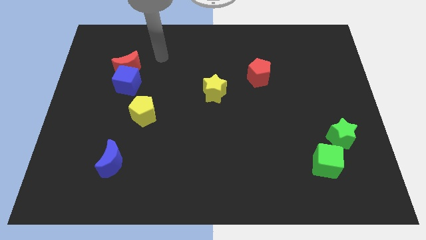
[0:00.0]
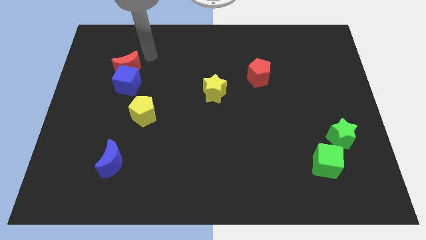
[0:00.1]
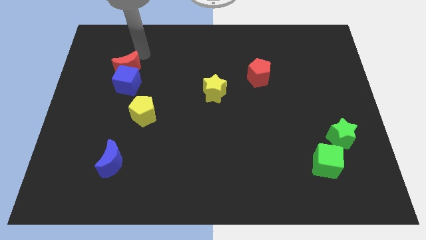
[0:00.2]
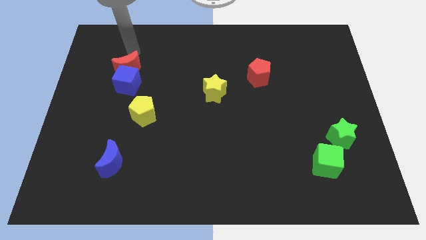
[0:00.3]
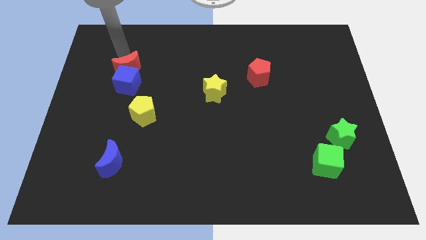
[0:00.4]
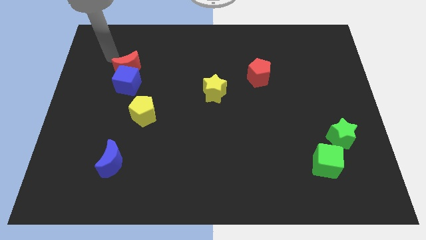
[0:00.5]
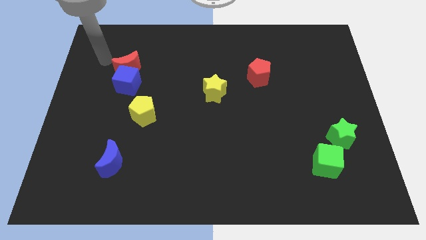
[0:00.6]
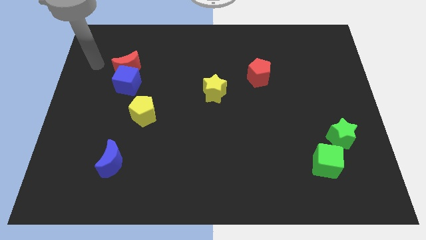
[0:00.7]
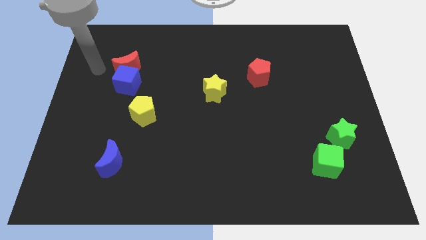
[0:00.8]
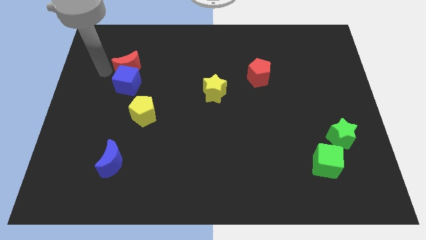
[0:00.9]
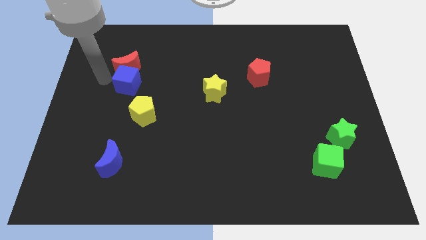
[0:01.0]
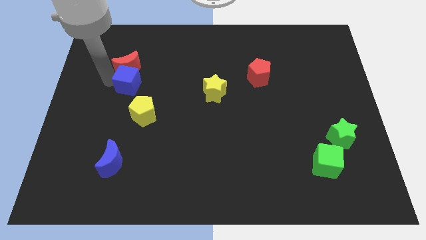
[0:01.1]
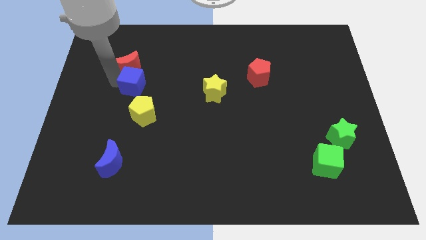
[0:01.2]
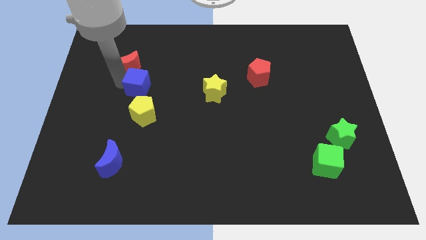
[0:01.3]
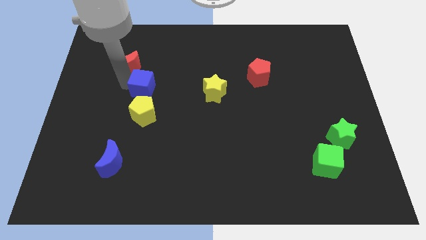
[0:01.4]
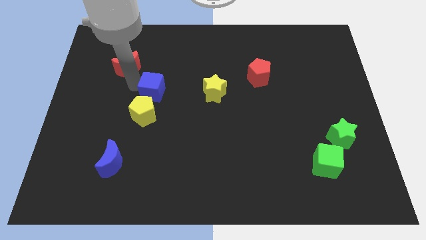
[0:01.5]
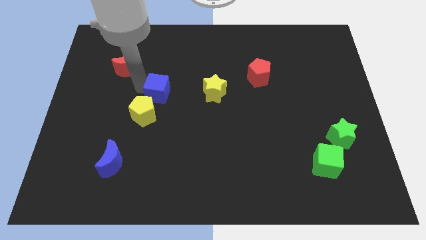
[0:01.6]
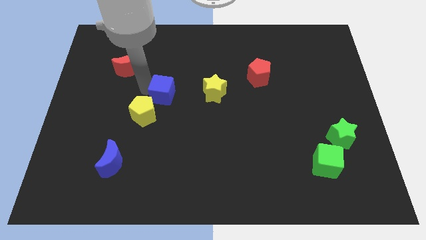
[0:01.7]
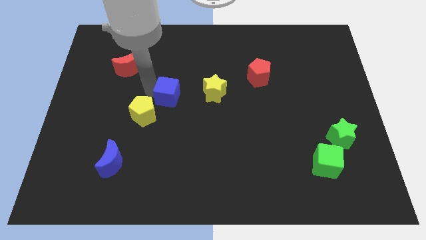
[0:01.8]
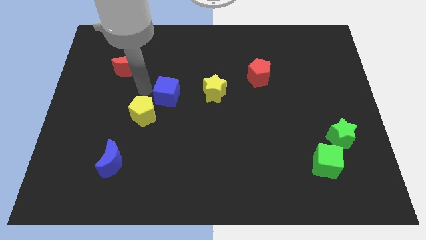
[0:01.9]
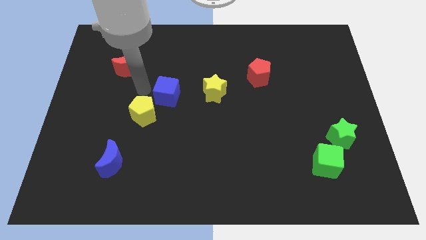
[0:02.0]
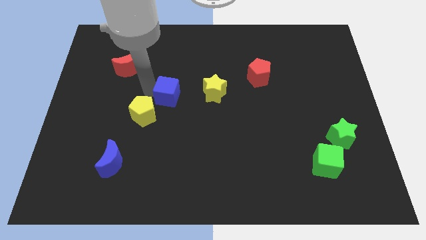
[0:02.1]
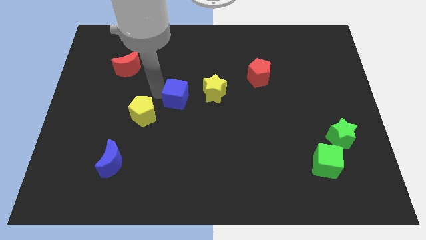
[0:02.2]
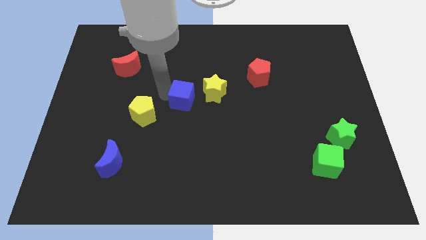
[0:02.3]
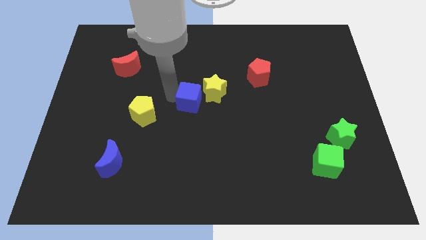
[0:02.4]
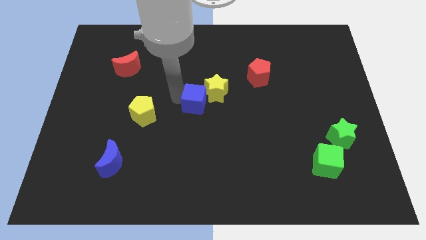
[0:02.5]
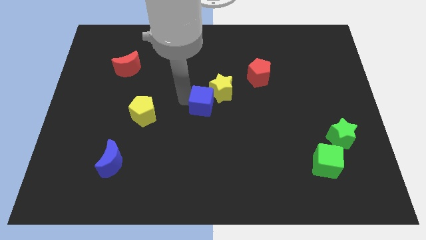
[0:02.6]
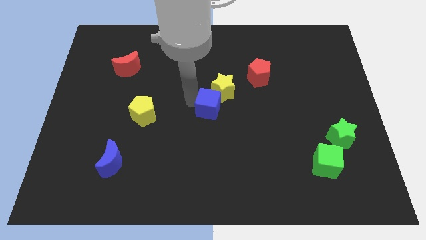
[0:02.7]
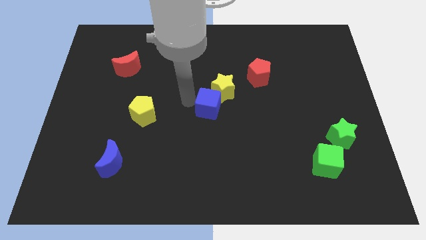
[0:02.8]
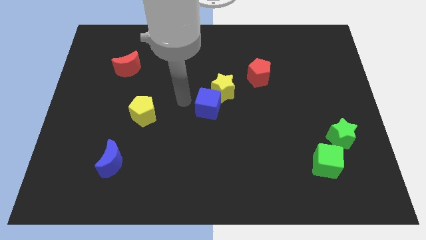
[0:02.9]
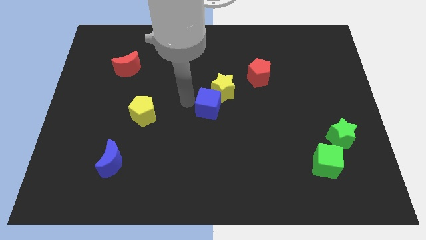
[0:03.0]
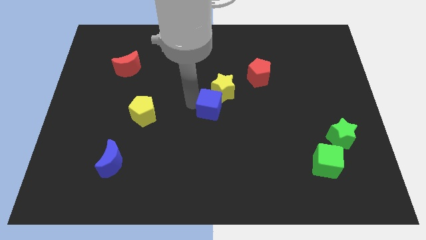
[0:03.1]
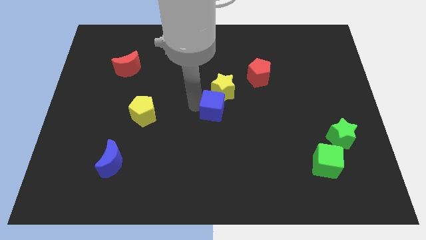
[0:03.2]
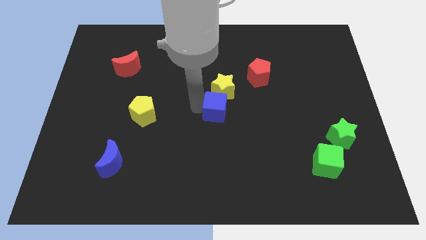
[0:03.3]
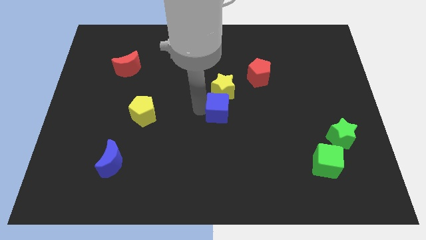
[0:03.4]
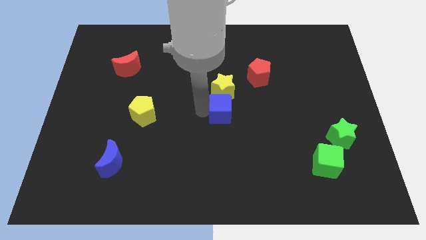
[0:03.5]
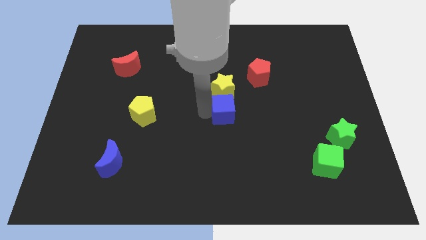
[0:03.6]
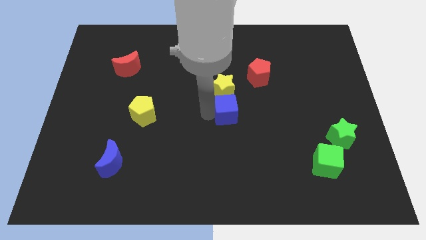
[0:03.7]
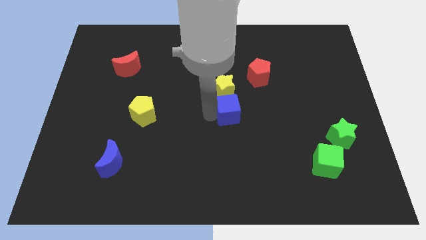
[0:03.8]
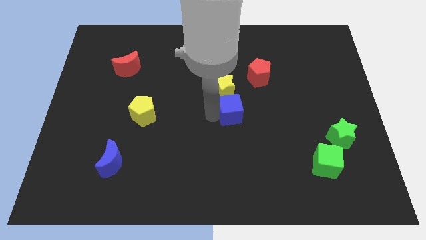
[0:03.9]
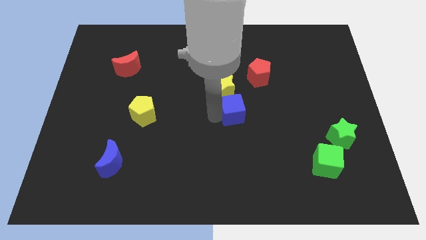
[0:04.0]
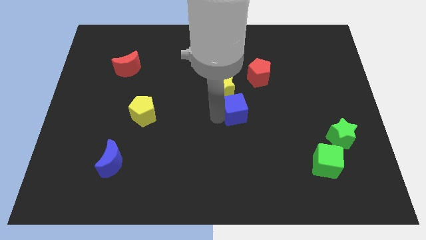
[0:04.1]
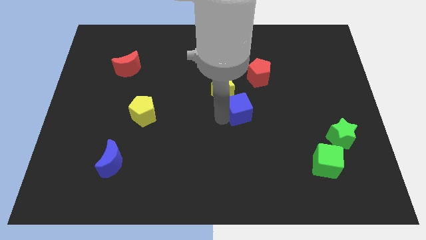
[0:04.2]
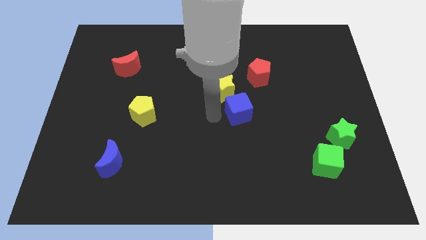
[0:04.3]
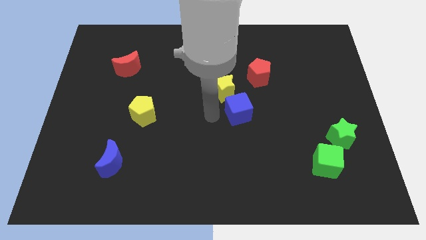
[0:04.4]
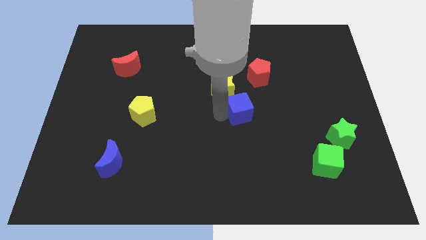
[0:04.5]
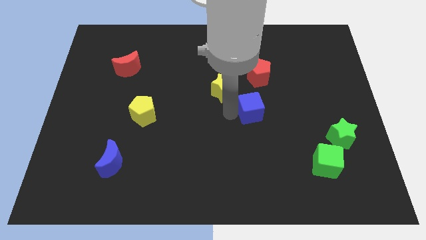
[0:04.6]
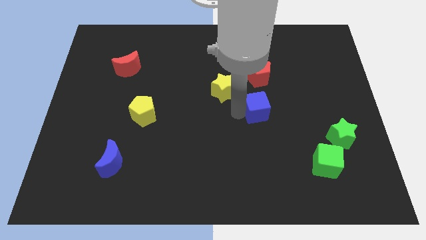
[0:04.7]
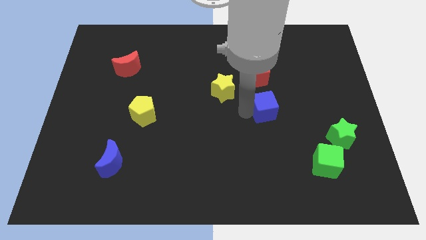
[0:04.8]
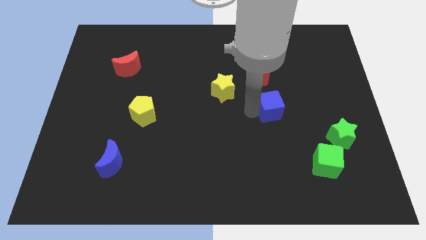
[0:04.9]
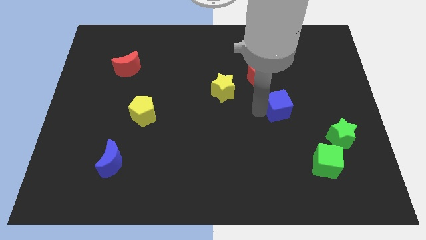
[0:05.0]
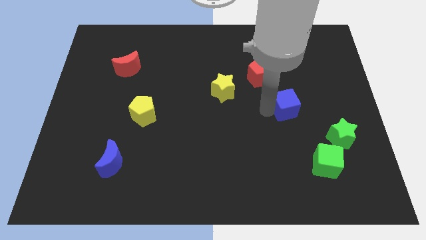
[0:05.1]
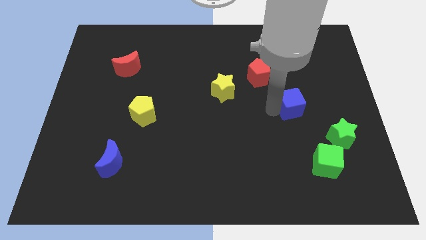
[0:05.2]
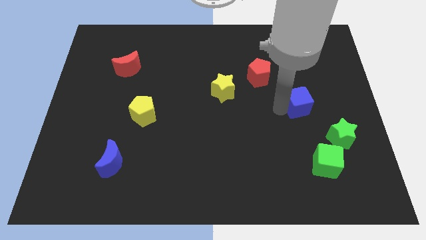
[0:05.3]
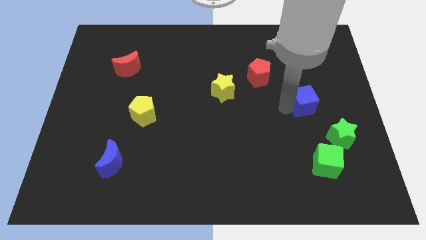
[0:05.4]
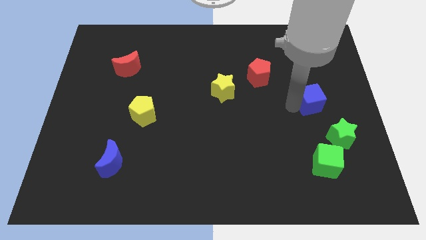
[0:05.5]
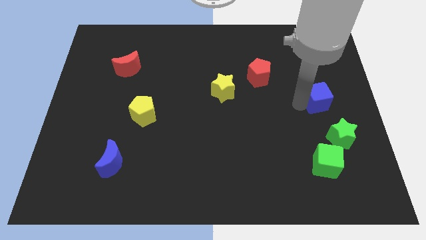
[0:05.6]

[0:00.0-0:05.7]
put the blue cube to the top of the green star

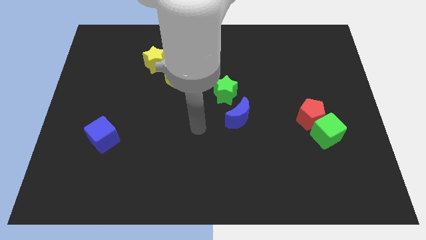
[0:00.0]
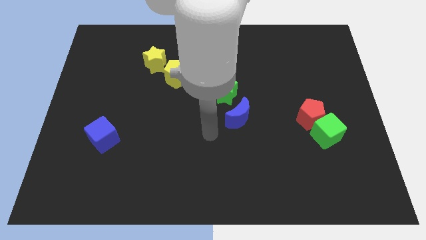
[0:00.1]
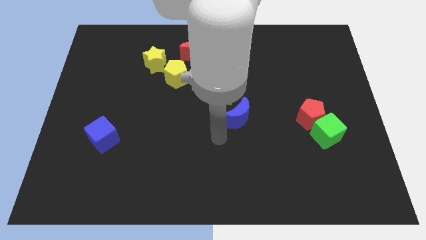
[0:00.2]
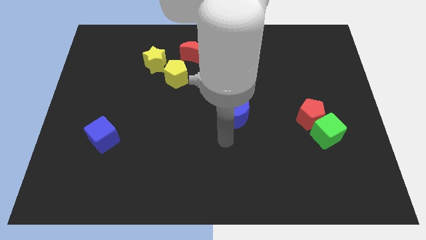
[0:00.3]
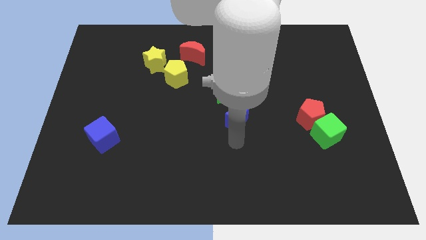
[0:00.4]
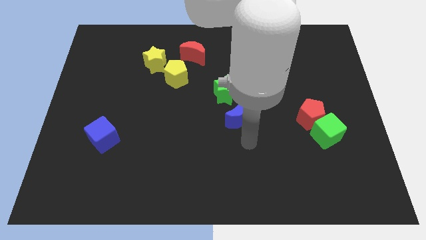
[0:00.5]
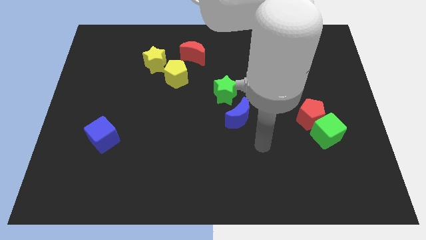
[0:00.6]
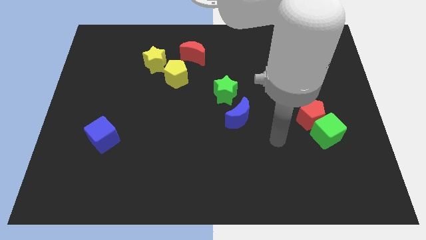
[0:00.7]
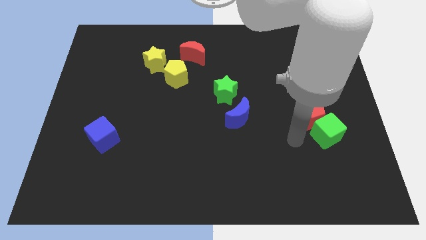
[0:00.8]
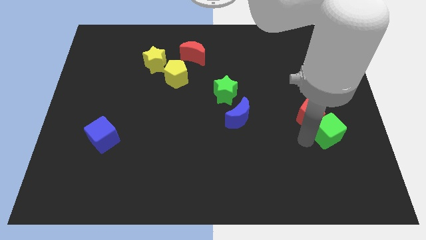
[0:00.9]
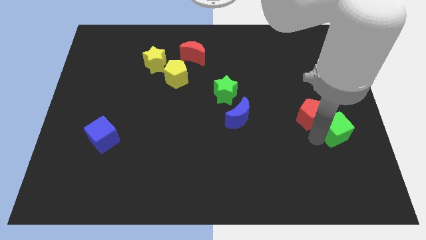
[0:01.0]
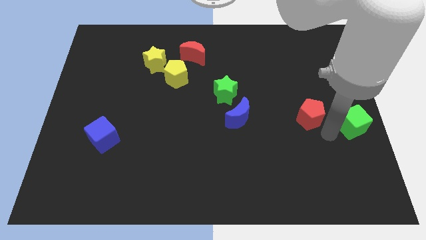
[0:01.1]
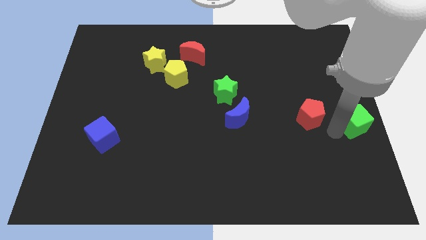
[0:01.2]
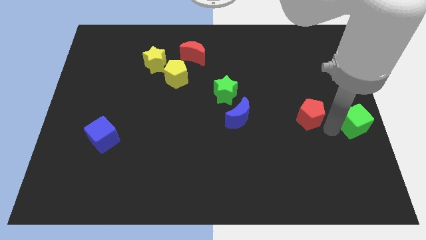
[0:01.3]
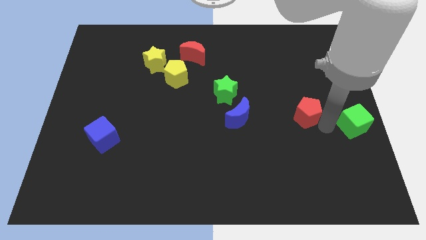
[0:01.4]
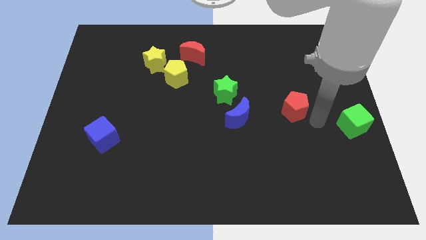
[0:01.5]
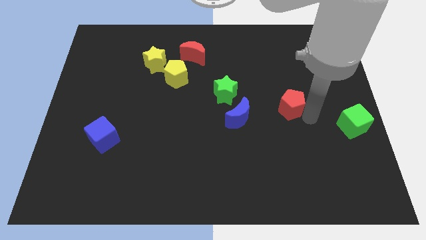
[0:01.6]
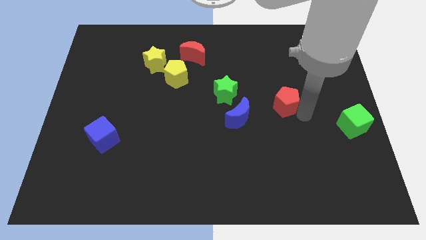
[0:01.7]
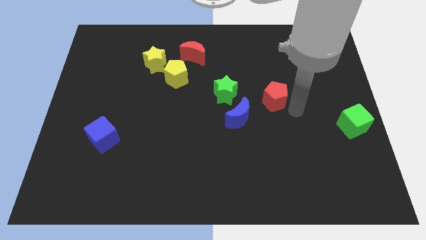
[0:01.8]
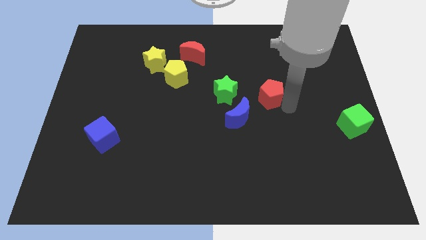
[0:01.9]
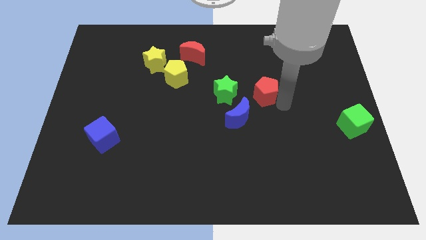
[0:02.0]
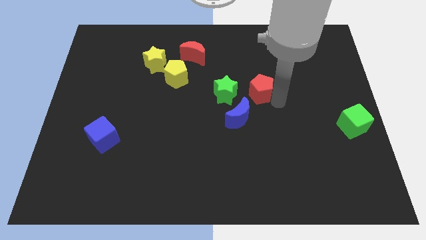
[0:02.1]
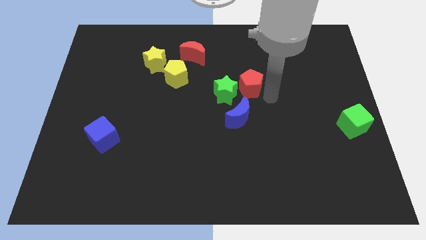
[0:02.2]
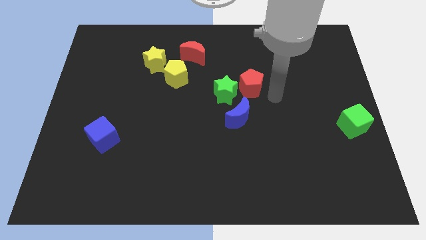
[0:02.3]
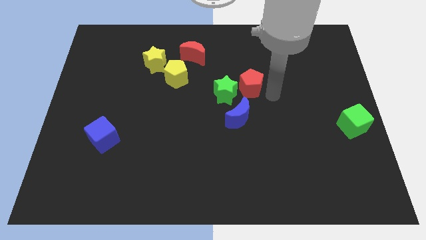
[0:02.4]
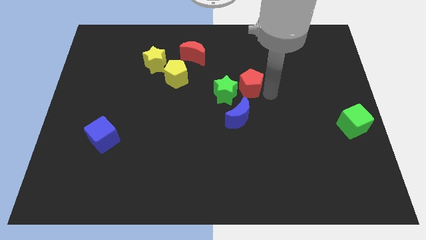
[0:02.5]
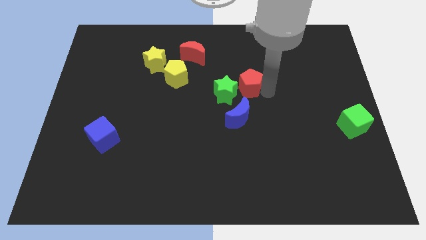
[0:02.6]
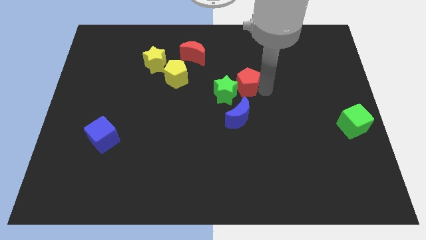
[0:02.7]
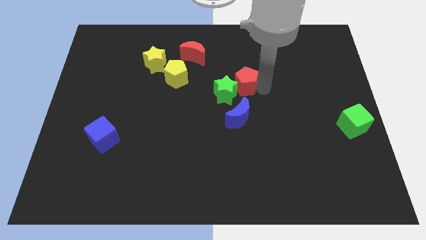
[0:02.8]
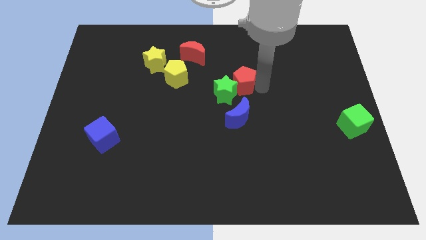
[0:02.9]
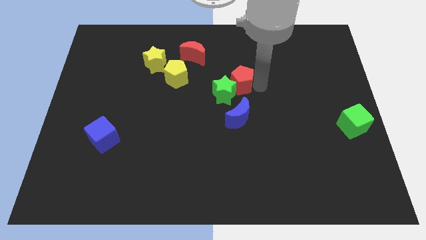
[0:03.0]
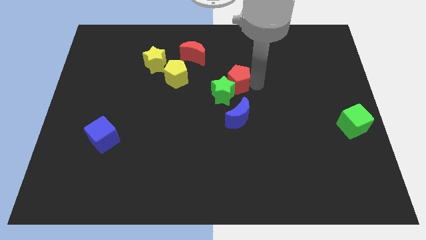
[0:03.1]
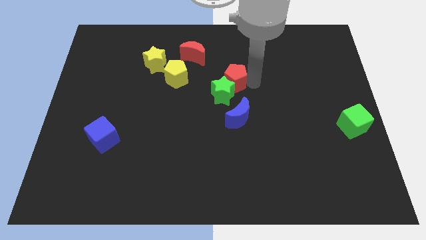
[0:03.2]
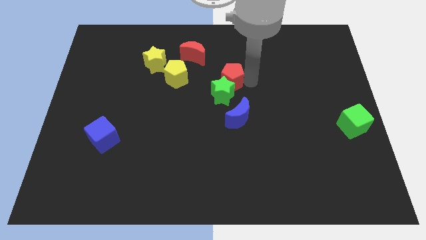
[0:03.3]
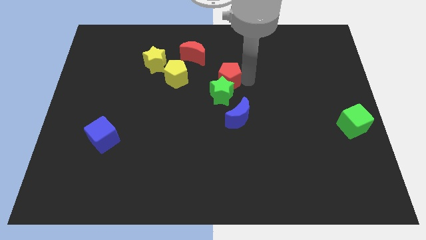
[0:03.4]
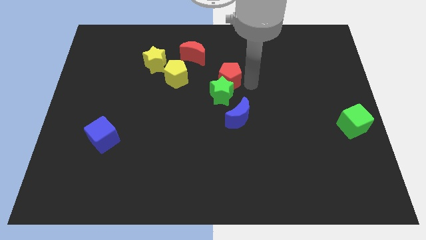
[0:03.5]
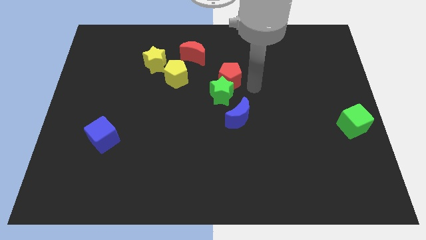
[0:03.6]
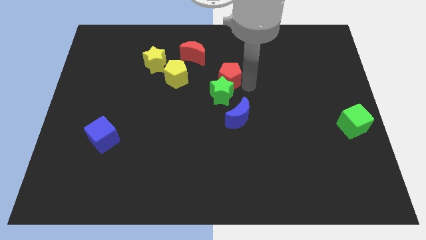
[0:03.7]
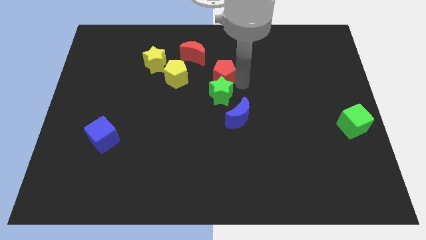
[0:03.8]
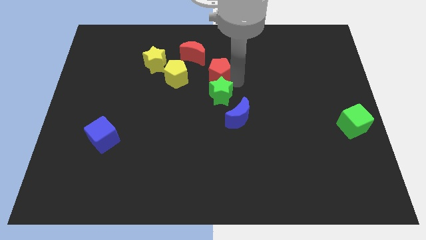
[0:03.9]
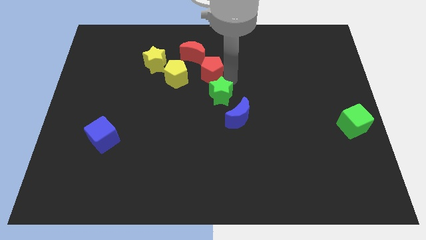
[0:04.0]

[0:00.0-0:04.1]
move the red pentagon just right of the yellow star
